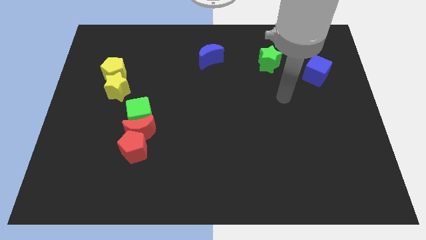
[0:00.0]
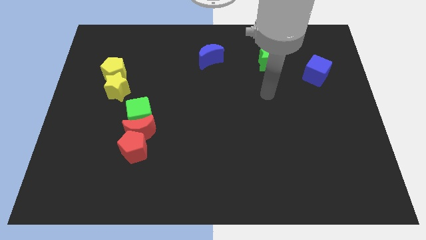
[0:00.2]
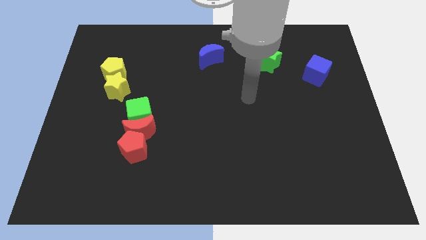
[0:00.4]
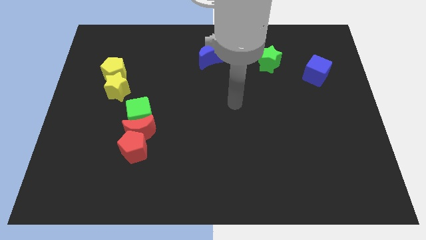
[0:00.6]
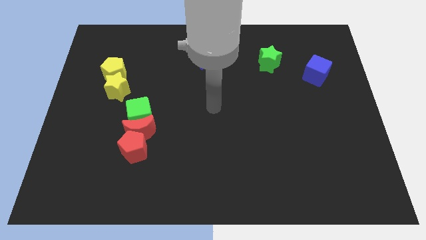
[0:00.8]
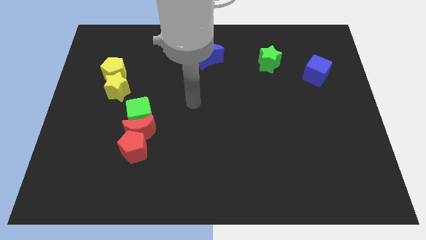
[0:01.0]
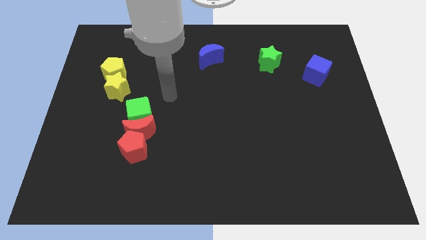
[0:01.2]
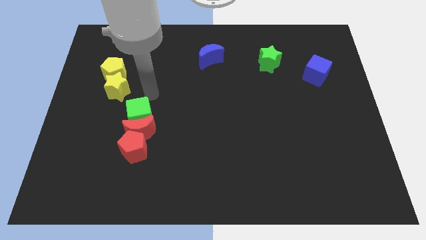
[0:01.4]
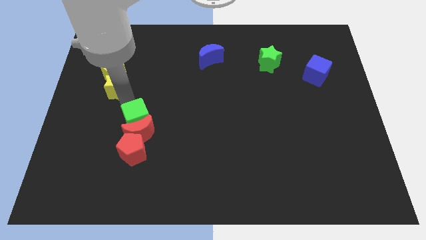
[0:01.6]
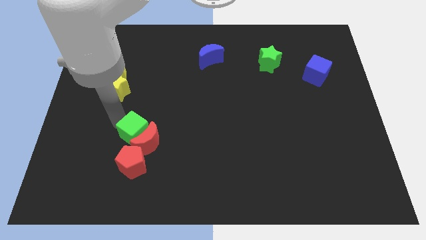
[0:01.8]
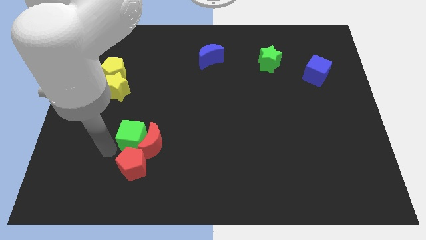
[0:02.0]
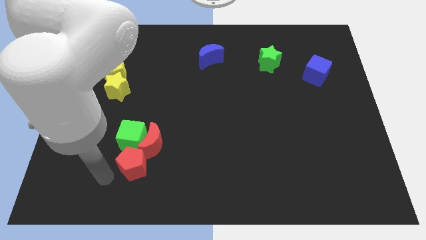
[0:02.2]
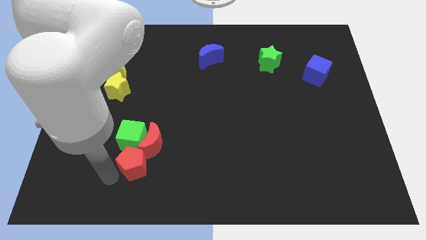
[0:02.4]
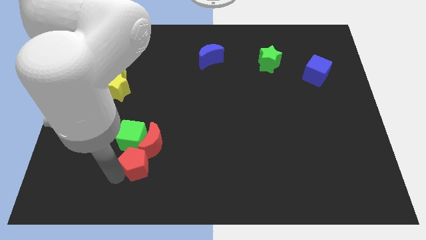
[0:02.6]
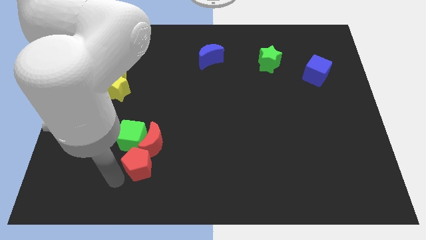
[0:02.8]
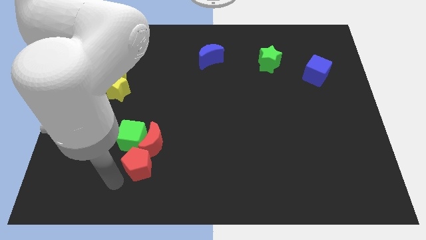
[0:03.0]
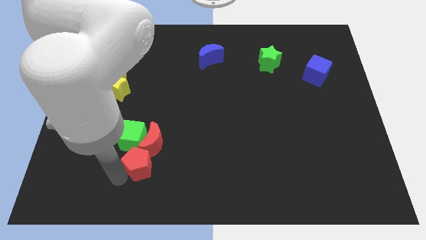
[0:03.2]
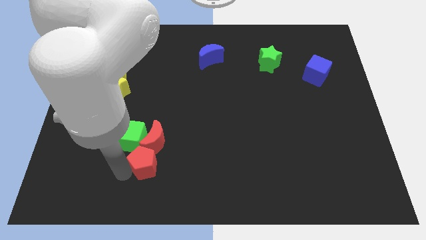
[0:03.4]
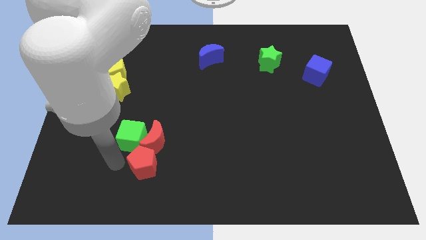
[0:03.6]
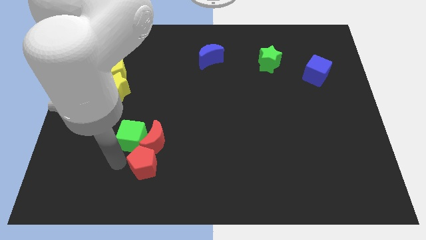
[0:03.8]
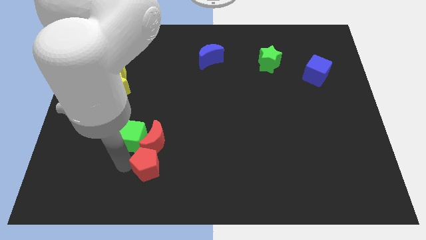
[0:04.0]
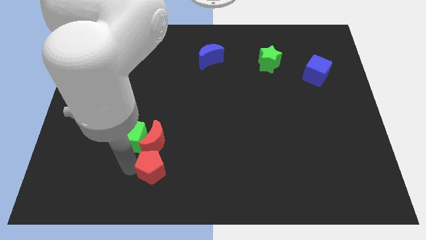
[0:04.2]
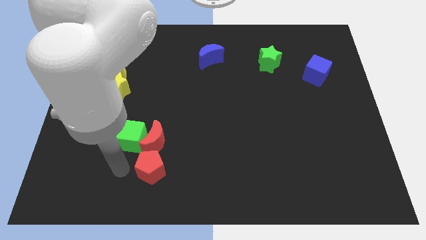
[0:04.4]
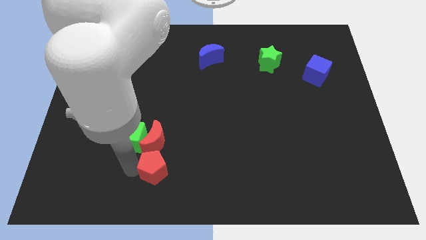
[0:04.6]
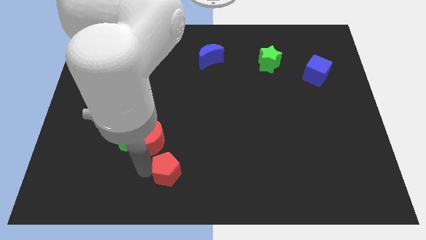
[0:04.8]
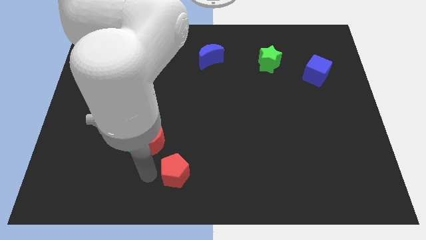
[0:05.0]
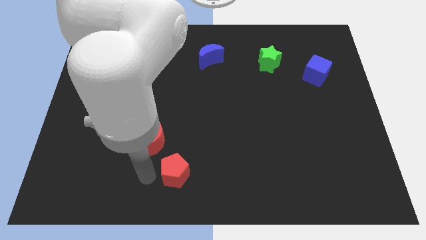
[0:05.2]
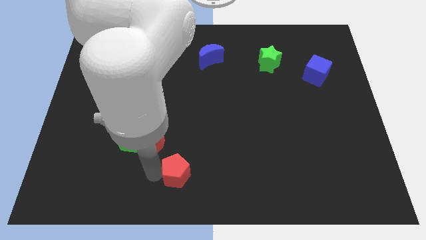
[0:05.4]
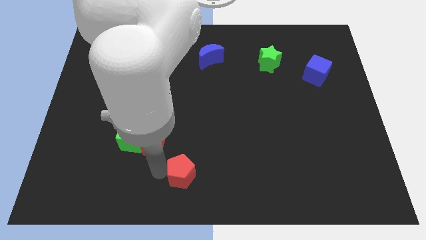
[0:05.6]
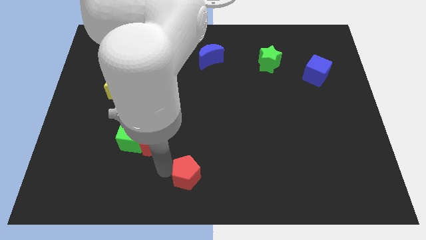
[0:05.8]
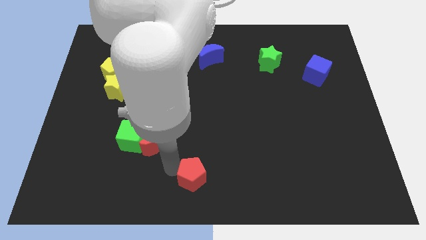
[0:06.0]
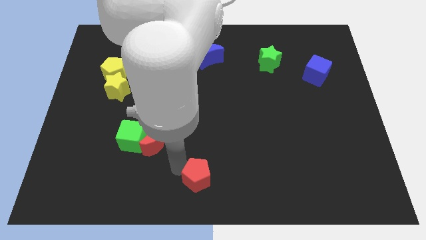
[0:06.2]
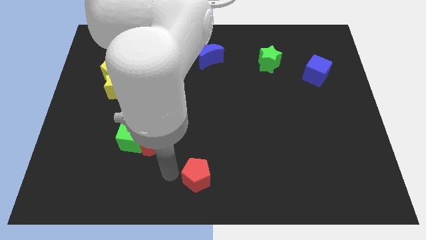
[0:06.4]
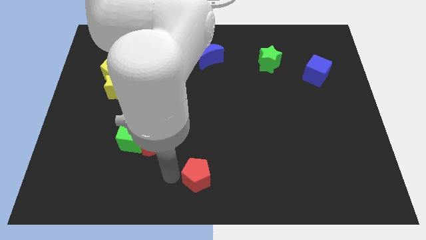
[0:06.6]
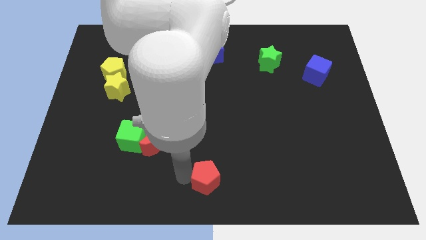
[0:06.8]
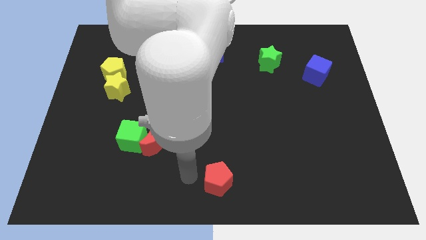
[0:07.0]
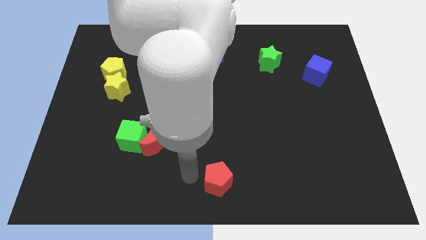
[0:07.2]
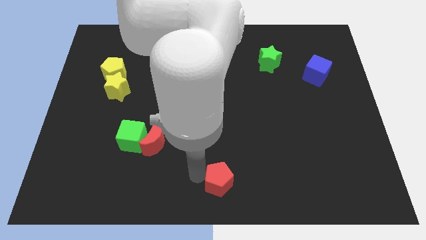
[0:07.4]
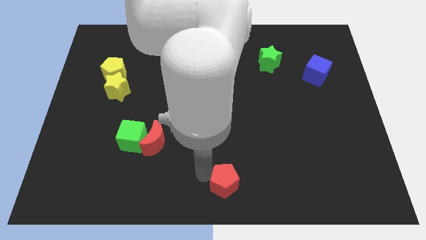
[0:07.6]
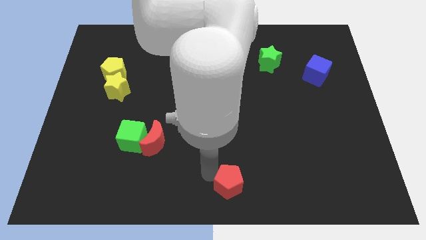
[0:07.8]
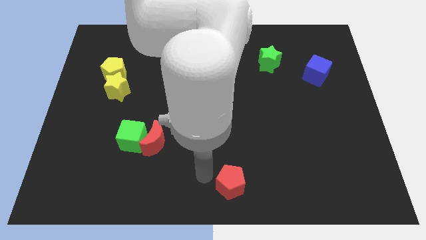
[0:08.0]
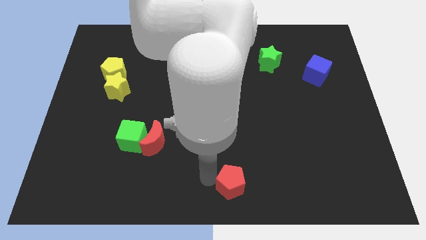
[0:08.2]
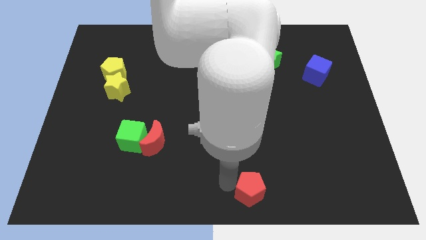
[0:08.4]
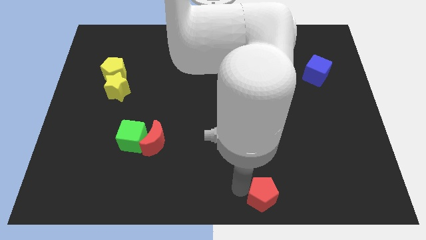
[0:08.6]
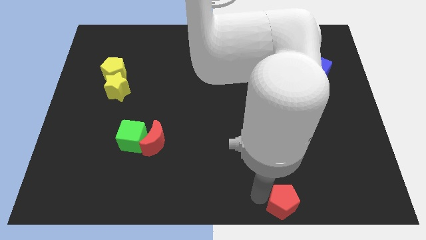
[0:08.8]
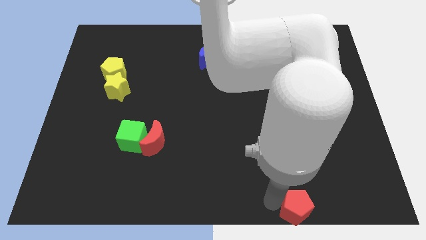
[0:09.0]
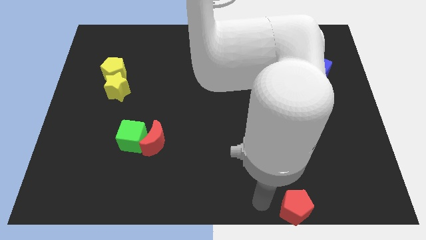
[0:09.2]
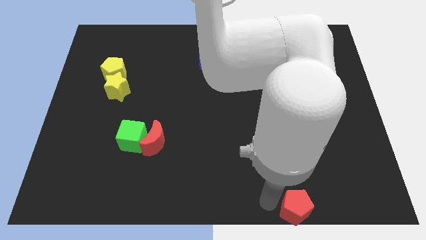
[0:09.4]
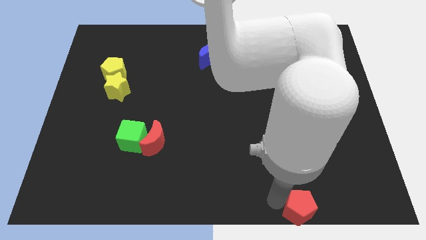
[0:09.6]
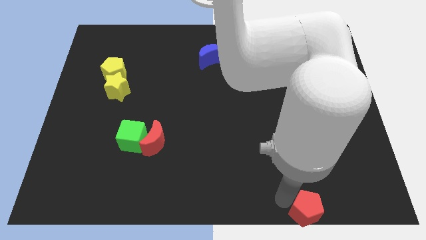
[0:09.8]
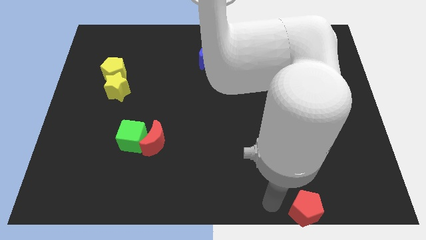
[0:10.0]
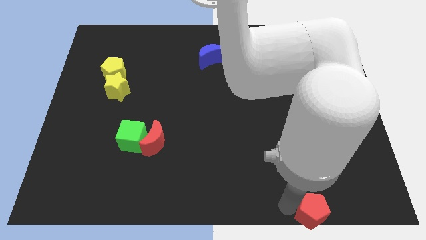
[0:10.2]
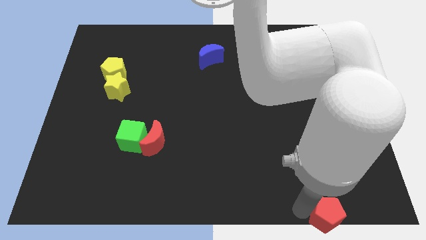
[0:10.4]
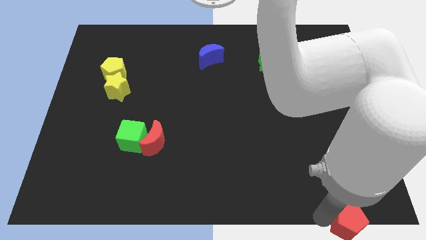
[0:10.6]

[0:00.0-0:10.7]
put the red pentagon to the bottom right
